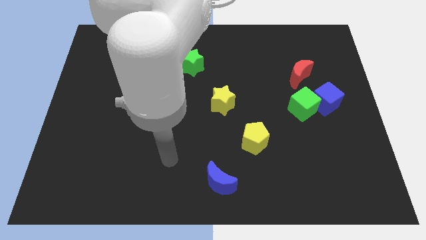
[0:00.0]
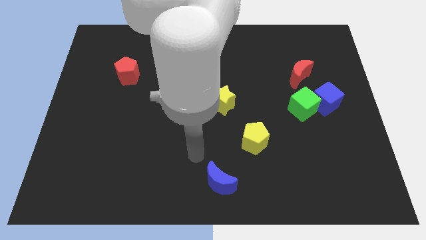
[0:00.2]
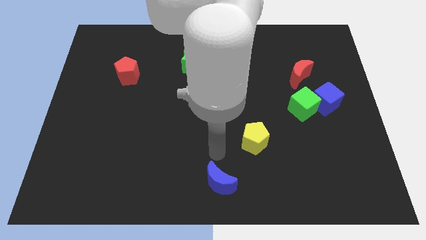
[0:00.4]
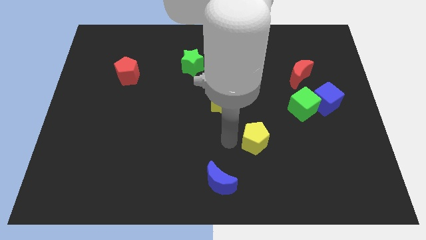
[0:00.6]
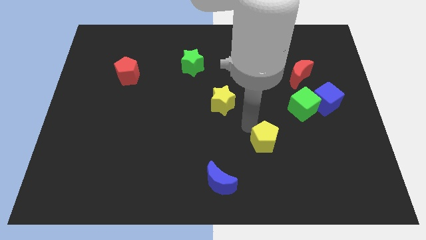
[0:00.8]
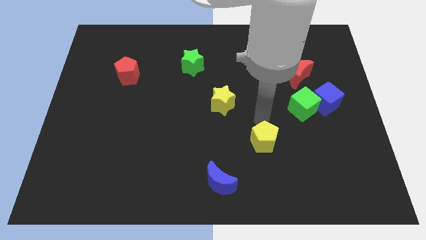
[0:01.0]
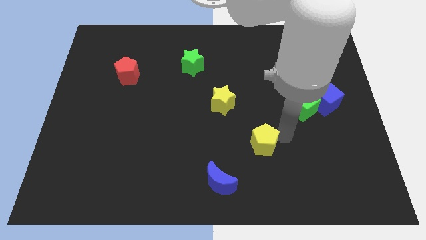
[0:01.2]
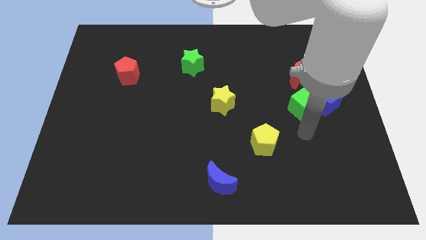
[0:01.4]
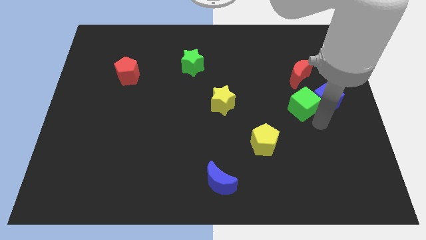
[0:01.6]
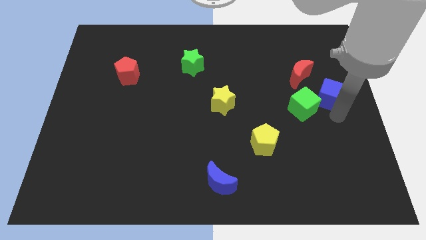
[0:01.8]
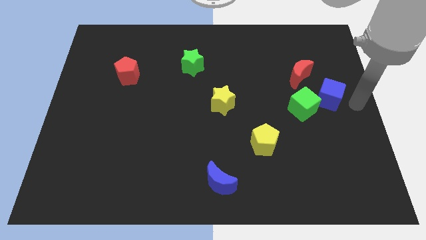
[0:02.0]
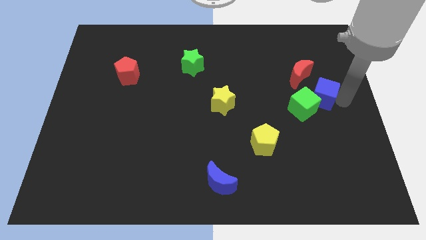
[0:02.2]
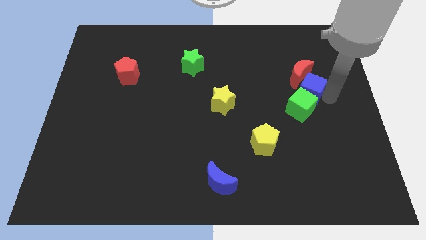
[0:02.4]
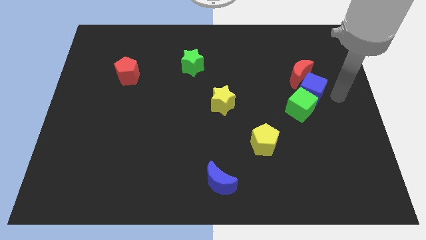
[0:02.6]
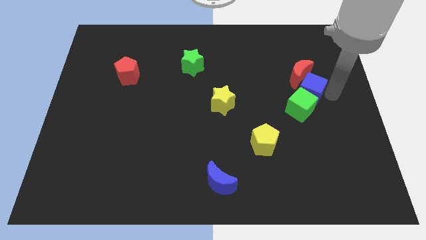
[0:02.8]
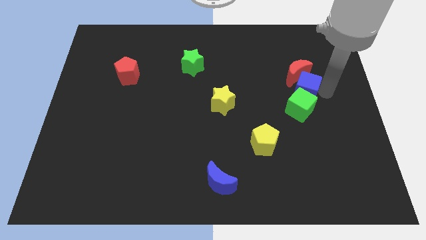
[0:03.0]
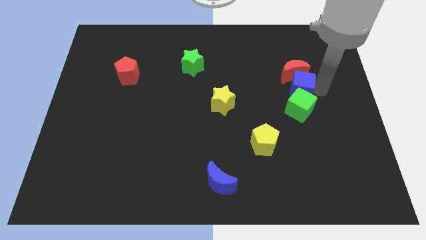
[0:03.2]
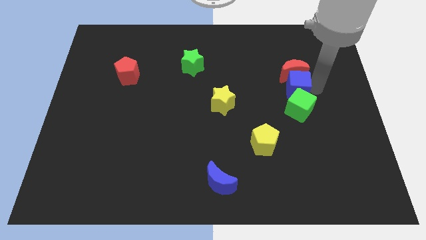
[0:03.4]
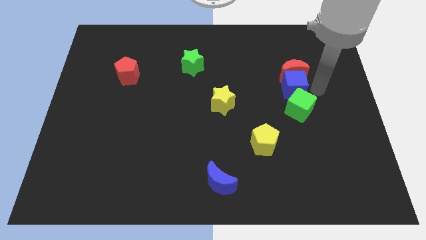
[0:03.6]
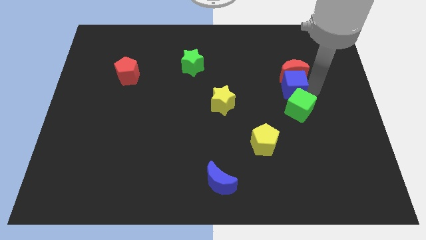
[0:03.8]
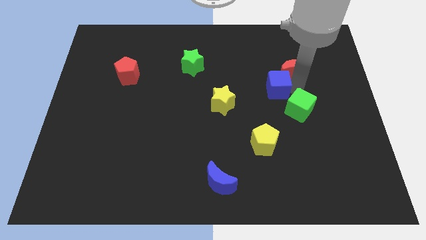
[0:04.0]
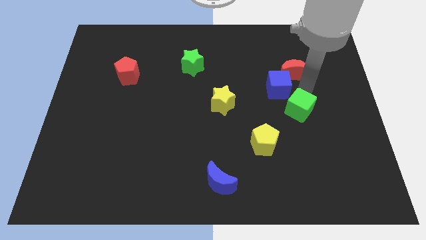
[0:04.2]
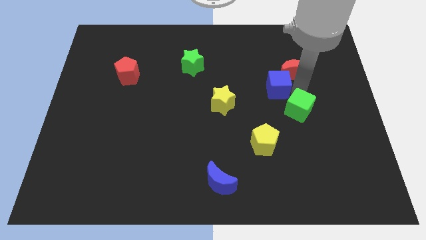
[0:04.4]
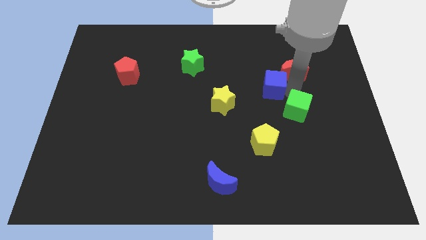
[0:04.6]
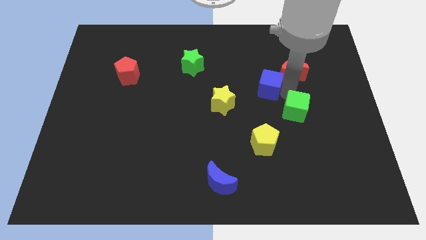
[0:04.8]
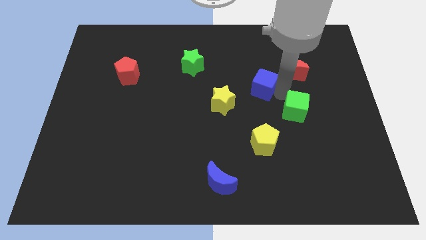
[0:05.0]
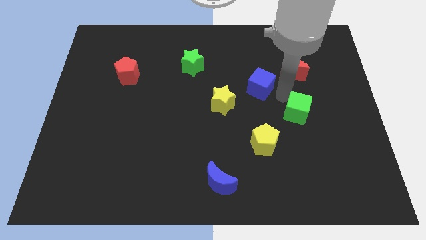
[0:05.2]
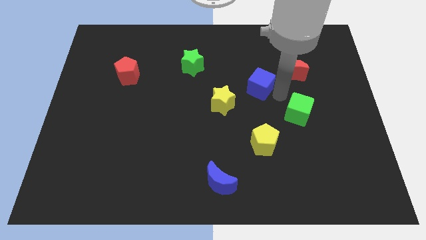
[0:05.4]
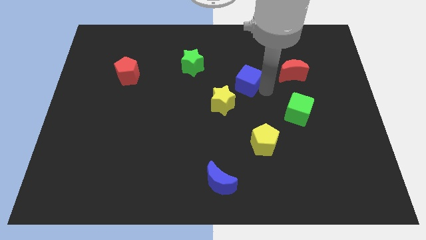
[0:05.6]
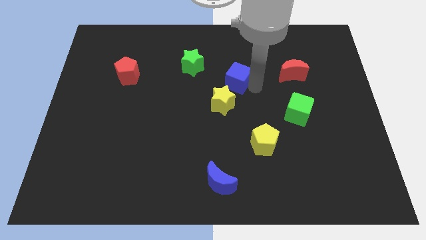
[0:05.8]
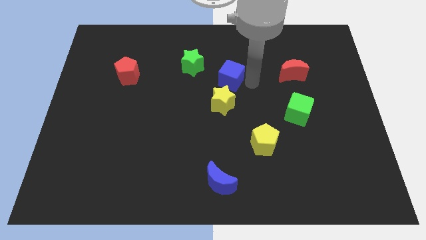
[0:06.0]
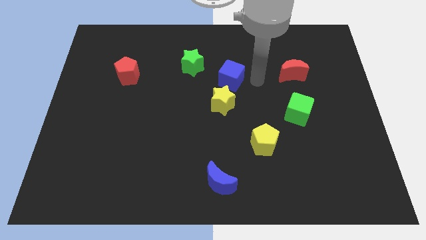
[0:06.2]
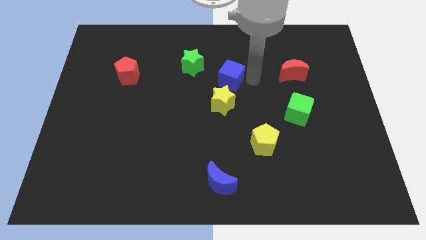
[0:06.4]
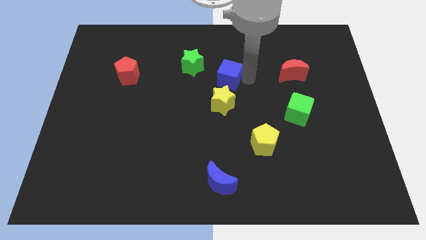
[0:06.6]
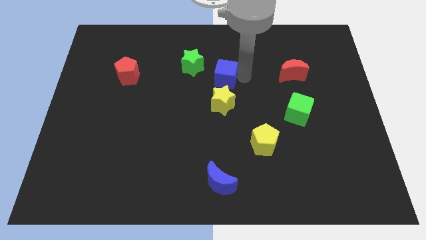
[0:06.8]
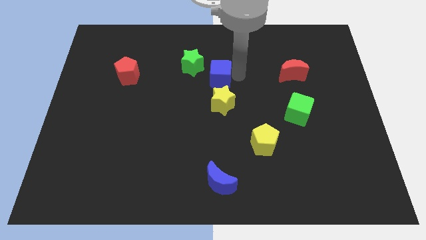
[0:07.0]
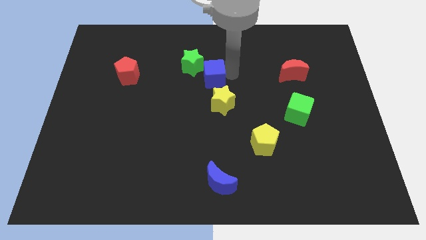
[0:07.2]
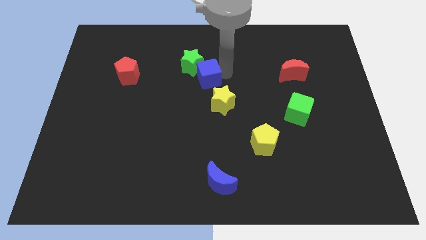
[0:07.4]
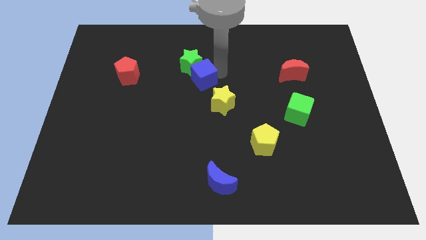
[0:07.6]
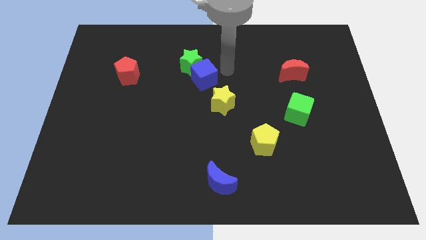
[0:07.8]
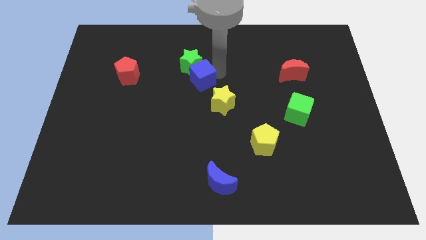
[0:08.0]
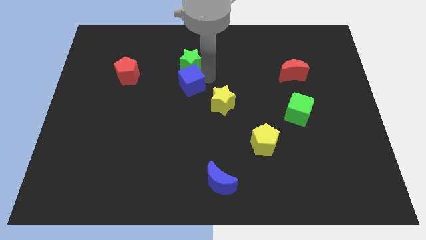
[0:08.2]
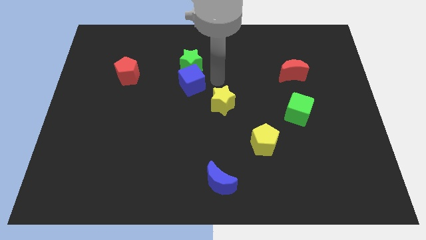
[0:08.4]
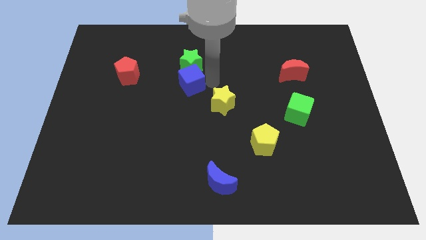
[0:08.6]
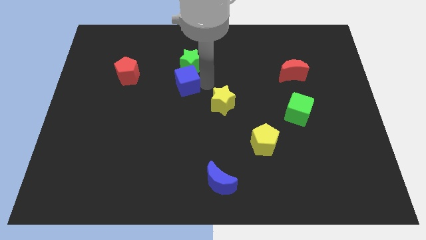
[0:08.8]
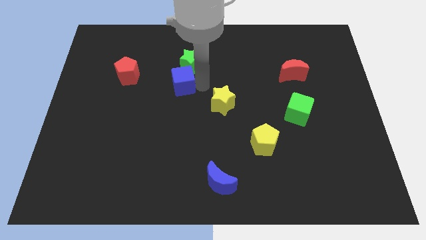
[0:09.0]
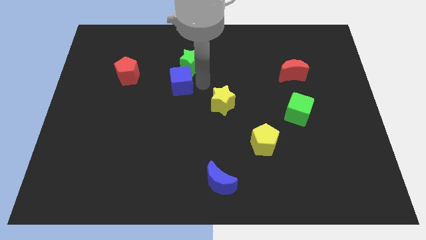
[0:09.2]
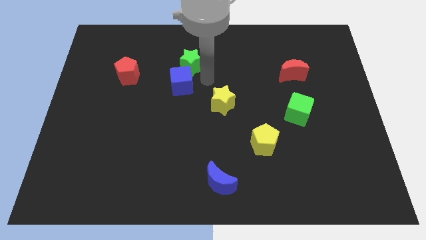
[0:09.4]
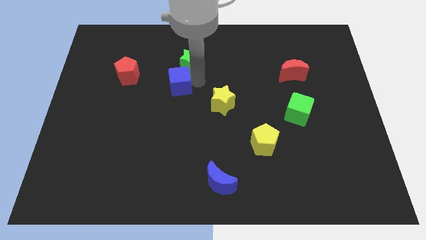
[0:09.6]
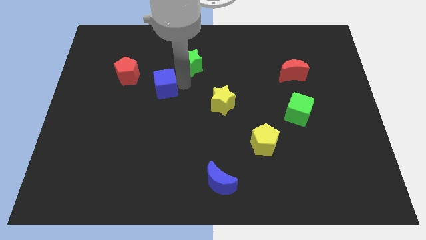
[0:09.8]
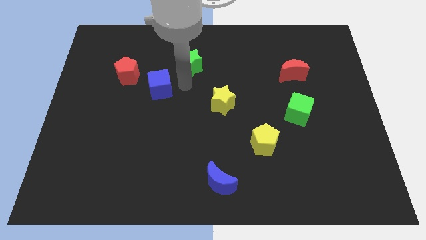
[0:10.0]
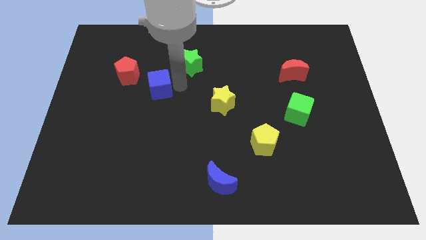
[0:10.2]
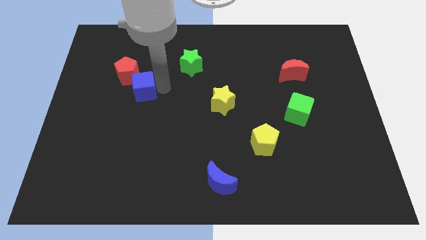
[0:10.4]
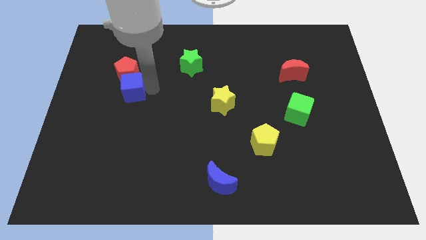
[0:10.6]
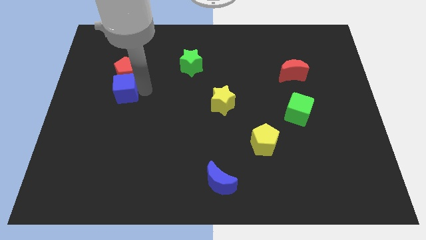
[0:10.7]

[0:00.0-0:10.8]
slide the blue cube to the bottom left of the red pentagon

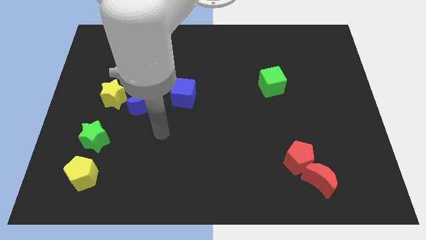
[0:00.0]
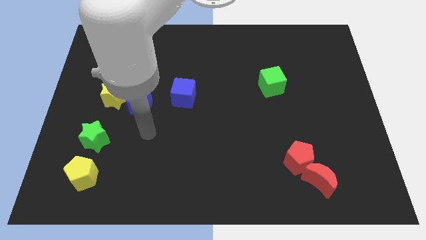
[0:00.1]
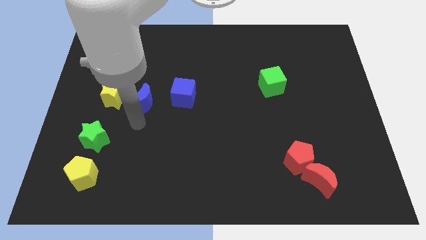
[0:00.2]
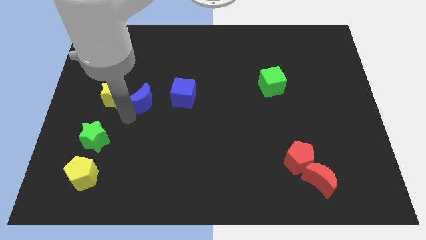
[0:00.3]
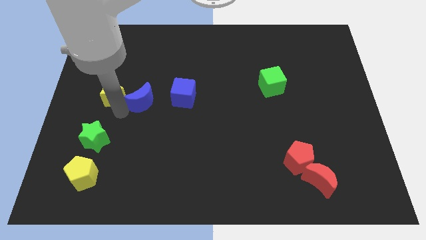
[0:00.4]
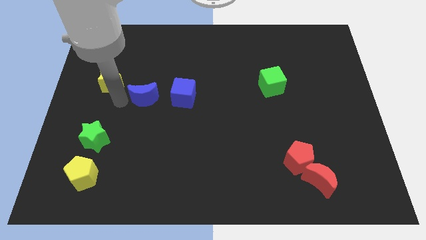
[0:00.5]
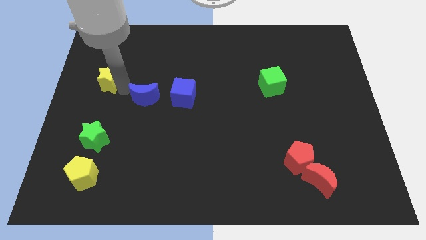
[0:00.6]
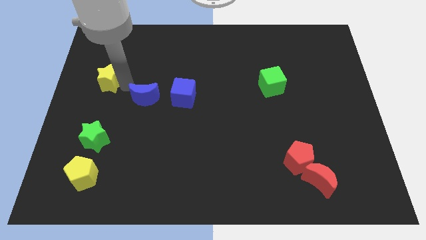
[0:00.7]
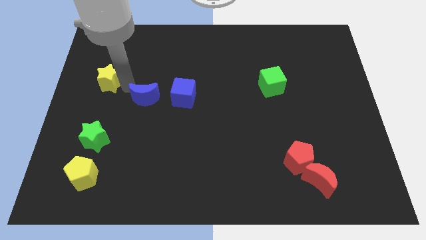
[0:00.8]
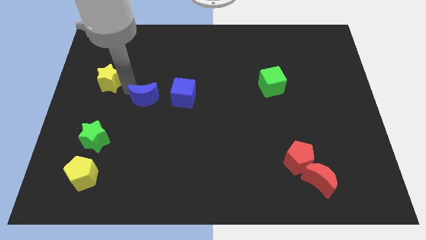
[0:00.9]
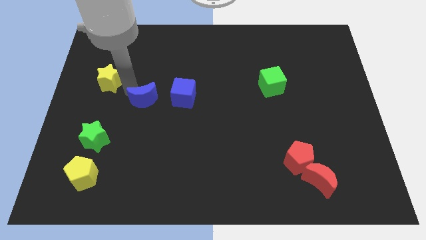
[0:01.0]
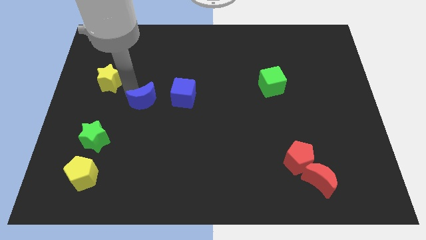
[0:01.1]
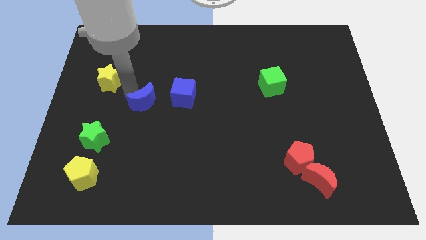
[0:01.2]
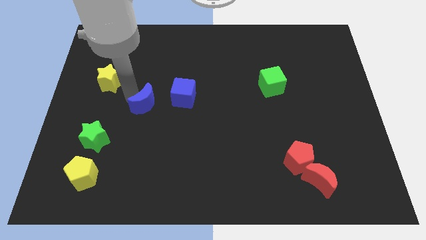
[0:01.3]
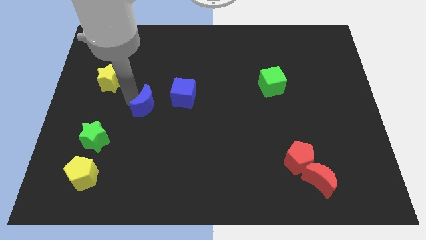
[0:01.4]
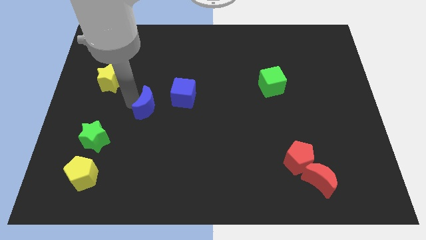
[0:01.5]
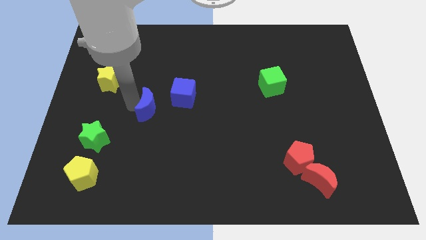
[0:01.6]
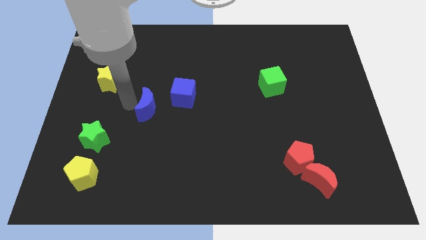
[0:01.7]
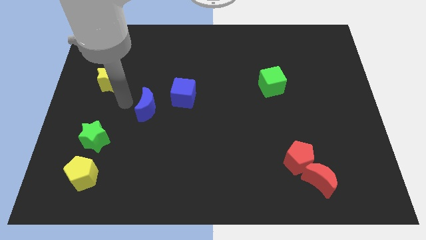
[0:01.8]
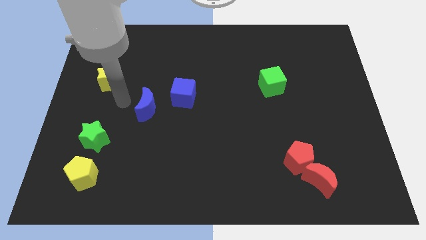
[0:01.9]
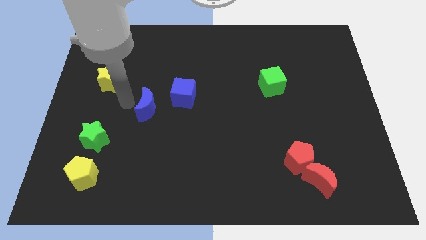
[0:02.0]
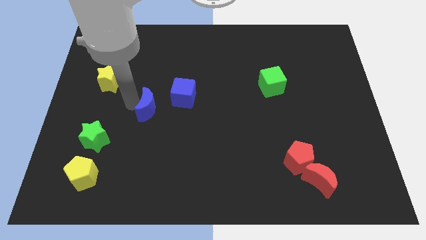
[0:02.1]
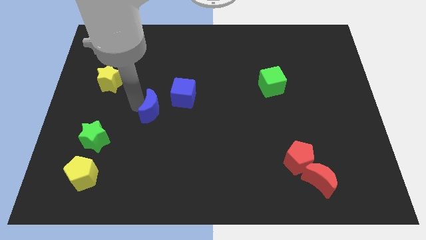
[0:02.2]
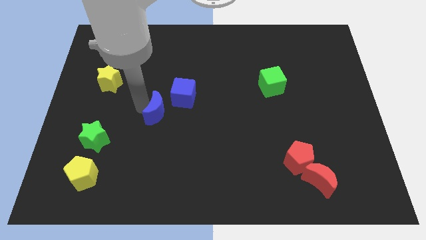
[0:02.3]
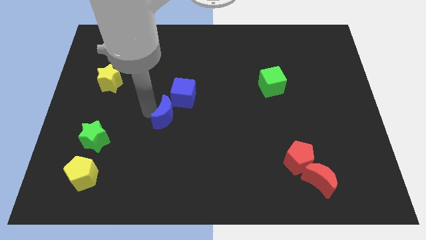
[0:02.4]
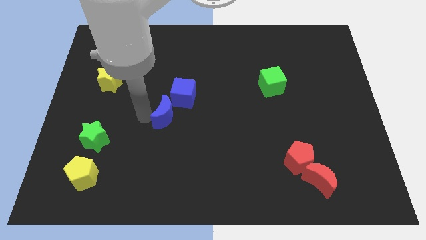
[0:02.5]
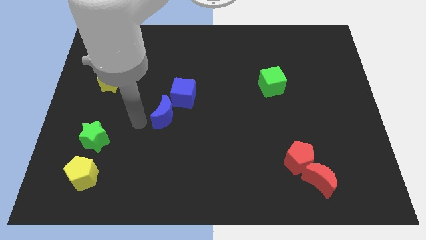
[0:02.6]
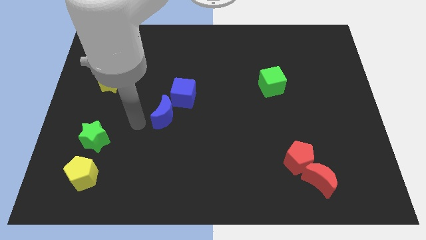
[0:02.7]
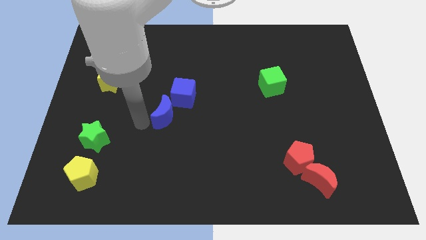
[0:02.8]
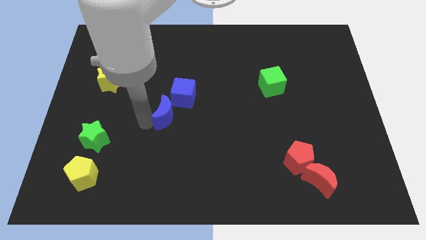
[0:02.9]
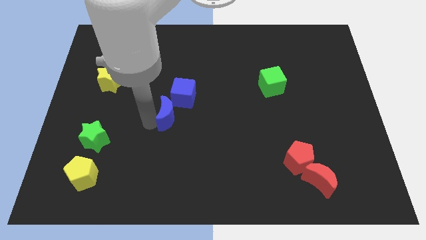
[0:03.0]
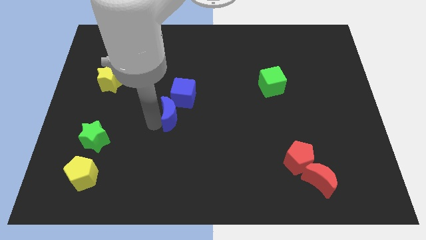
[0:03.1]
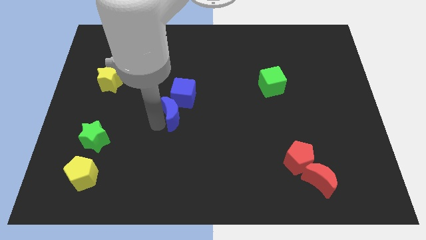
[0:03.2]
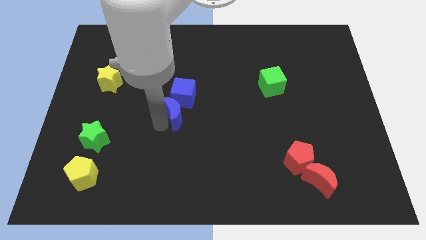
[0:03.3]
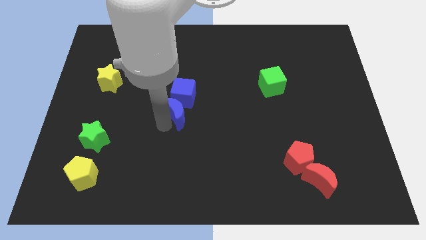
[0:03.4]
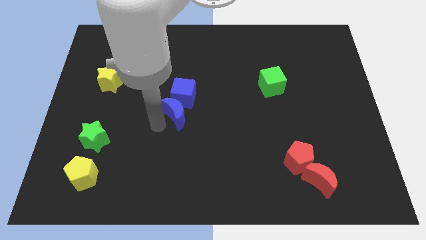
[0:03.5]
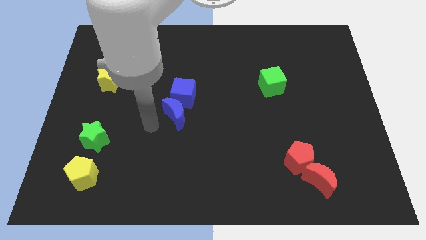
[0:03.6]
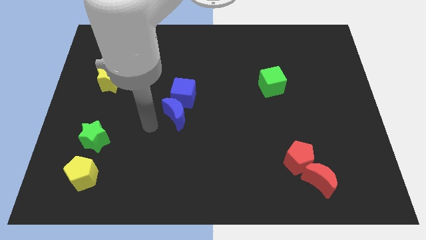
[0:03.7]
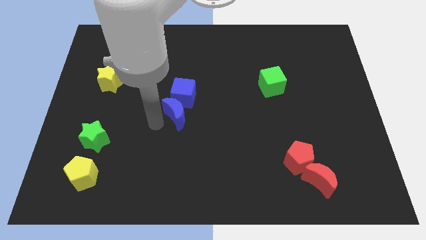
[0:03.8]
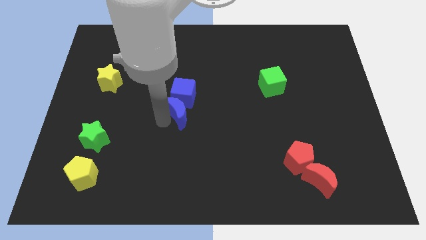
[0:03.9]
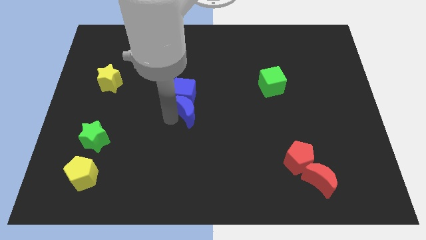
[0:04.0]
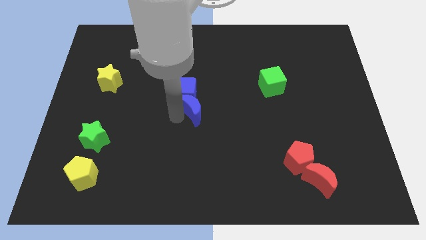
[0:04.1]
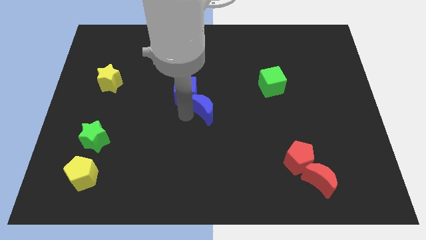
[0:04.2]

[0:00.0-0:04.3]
slide the blue moon just right of the blue cube
